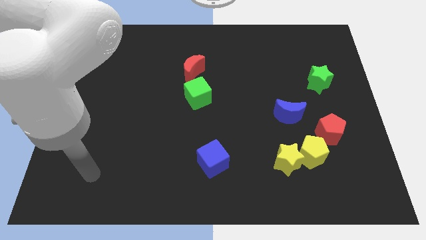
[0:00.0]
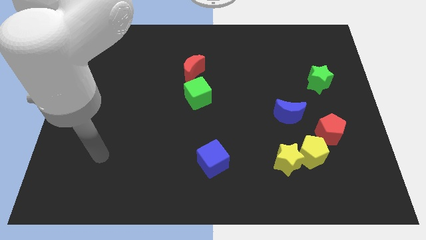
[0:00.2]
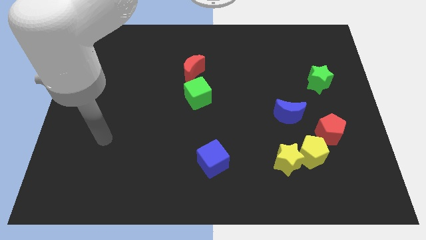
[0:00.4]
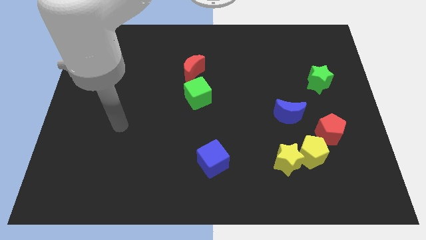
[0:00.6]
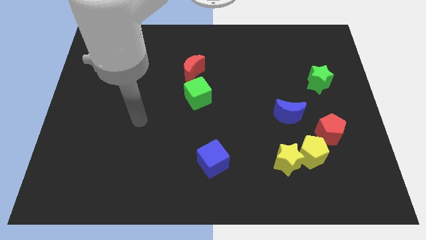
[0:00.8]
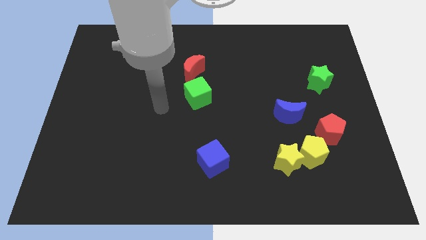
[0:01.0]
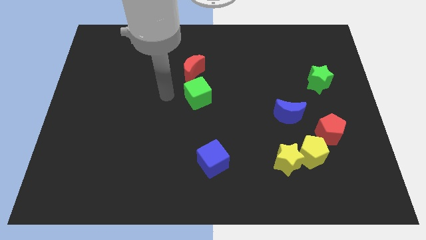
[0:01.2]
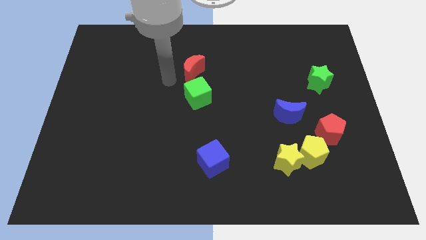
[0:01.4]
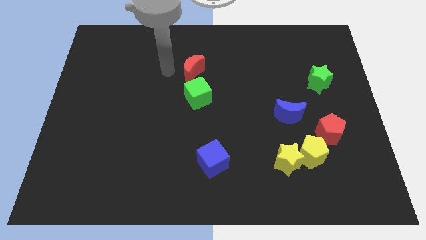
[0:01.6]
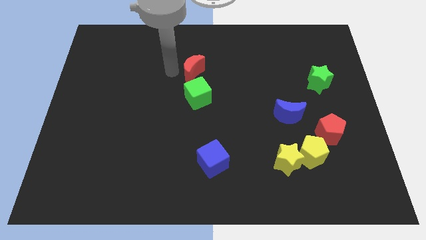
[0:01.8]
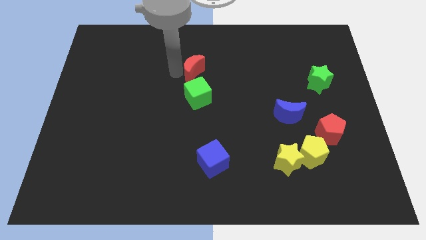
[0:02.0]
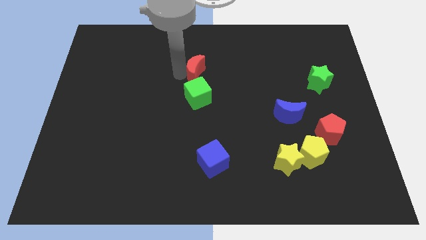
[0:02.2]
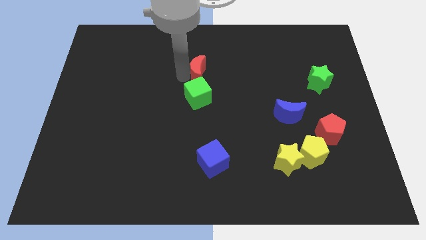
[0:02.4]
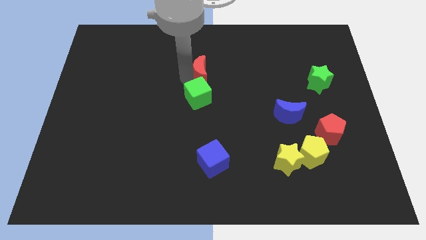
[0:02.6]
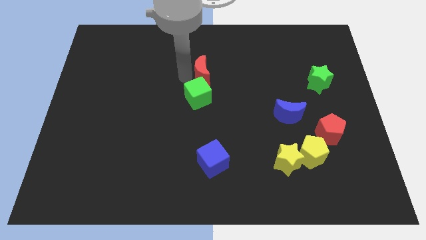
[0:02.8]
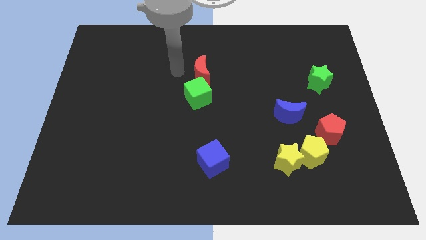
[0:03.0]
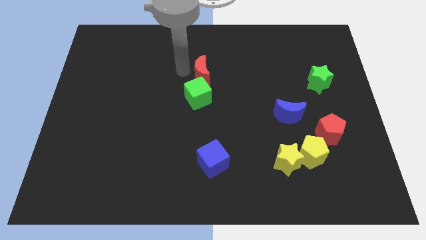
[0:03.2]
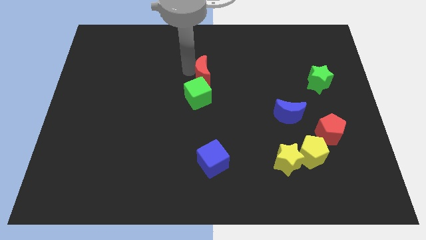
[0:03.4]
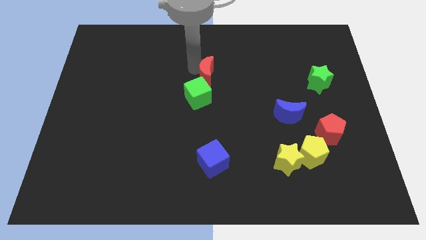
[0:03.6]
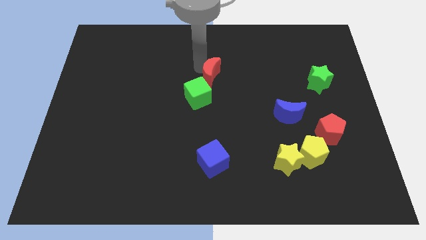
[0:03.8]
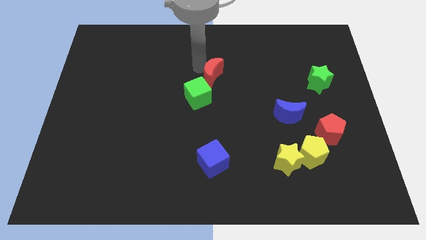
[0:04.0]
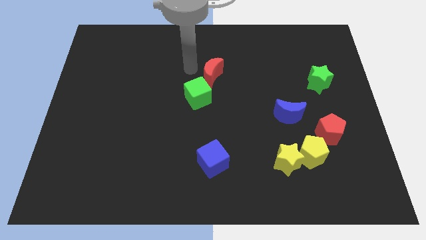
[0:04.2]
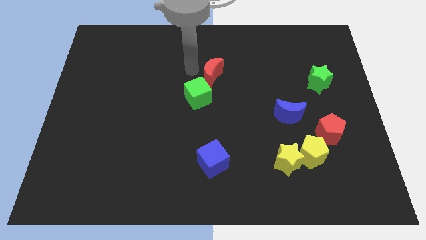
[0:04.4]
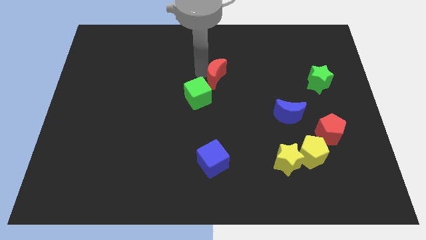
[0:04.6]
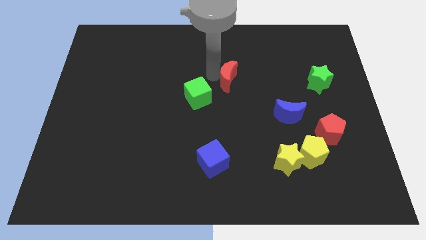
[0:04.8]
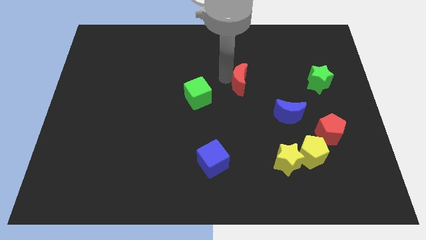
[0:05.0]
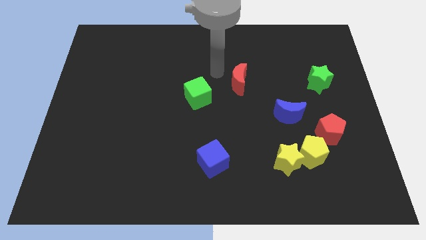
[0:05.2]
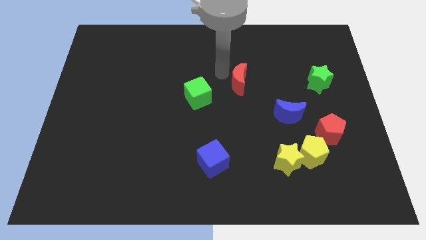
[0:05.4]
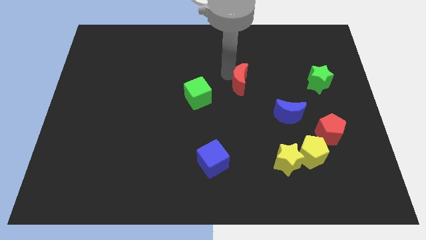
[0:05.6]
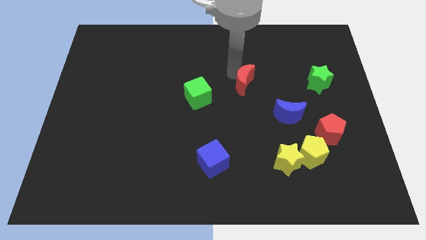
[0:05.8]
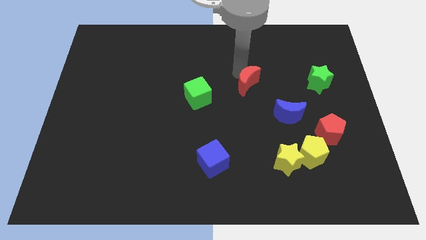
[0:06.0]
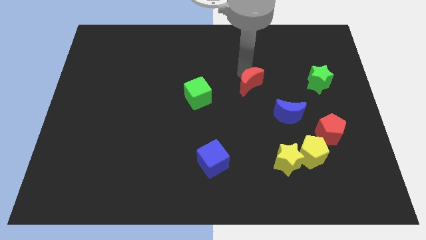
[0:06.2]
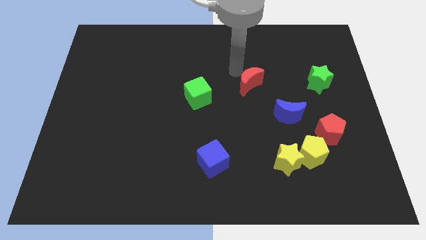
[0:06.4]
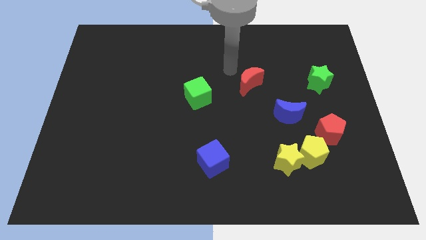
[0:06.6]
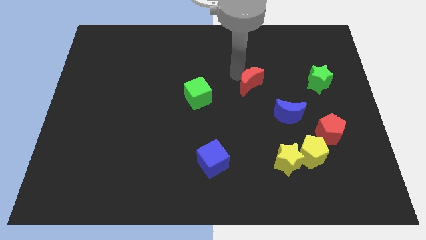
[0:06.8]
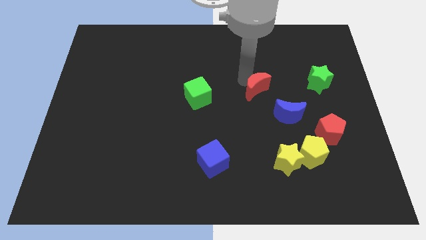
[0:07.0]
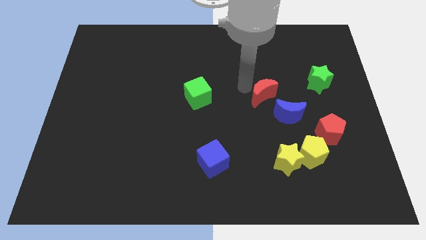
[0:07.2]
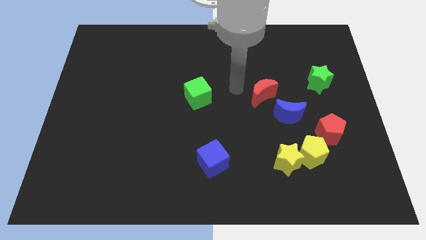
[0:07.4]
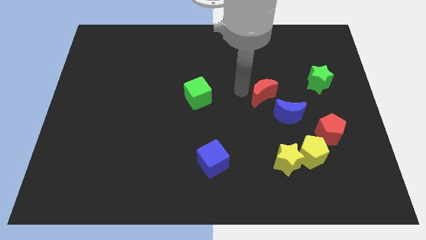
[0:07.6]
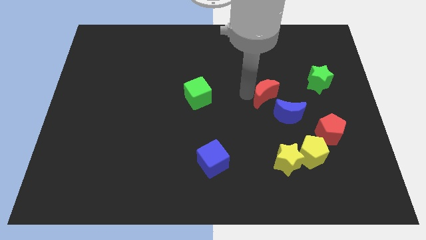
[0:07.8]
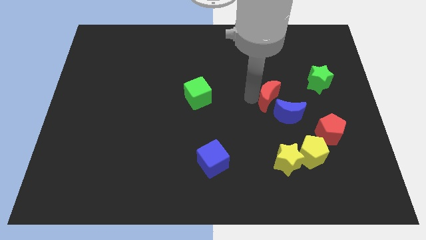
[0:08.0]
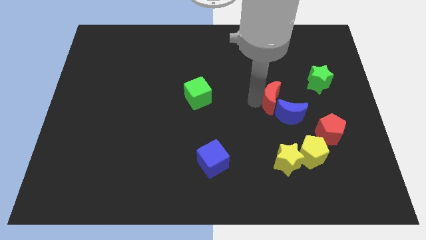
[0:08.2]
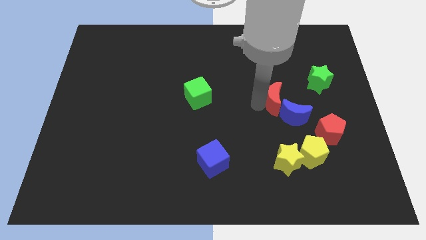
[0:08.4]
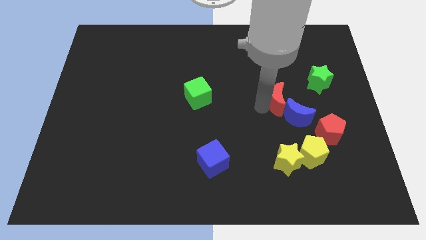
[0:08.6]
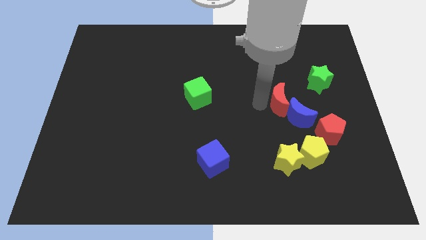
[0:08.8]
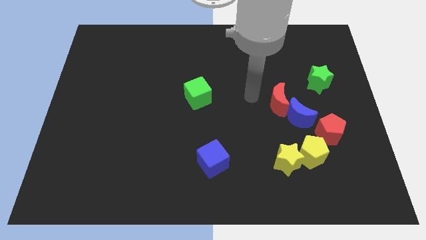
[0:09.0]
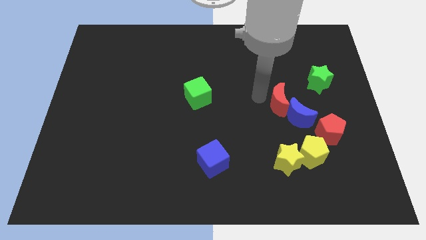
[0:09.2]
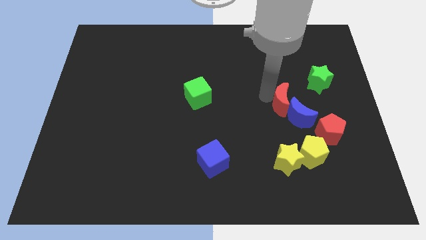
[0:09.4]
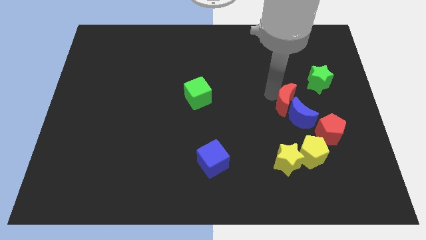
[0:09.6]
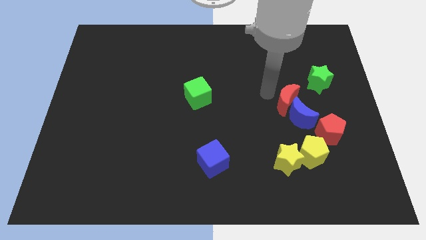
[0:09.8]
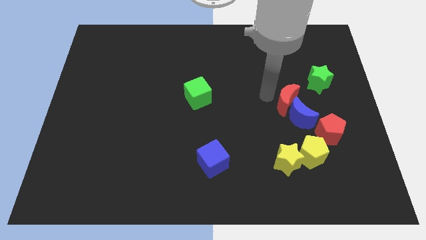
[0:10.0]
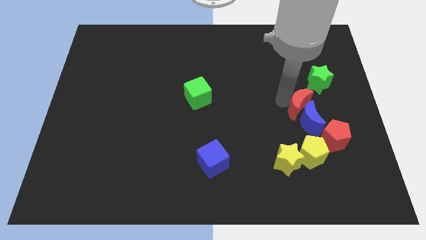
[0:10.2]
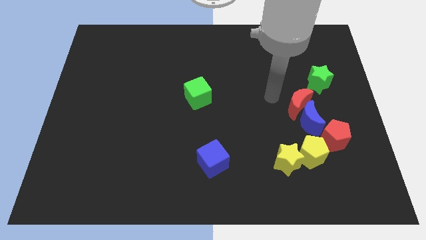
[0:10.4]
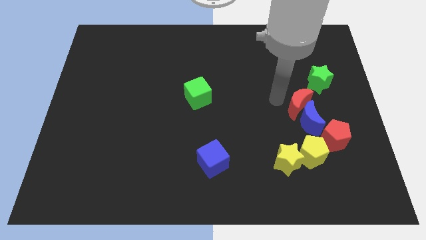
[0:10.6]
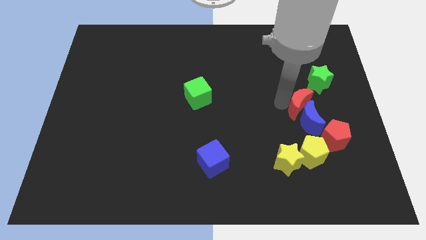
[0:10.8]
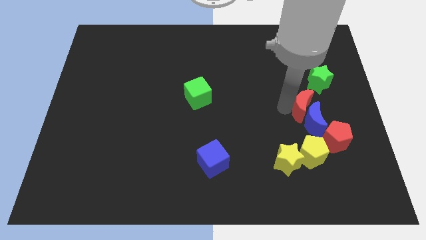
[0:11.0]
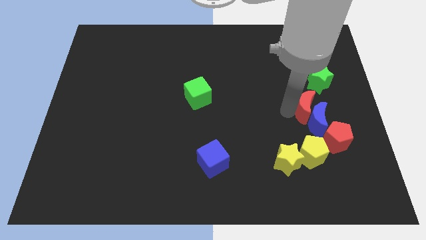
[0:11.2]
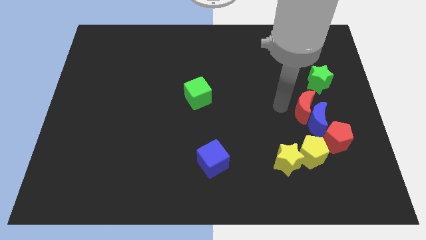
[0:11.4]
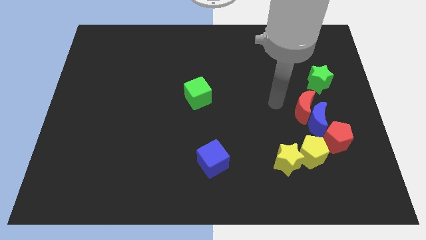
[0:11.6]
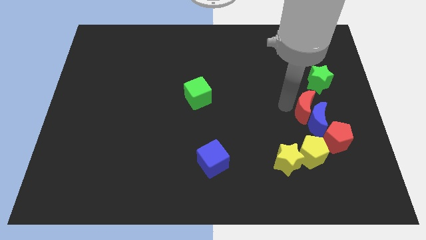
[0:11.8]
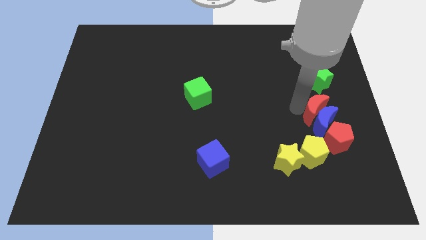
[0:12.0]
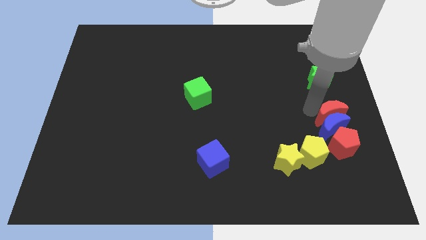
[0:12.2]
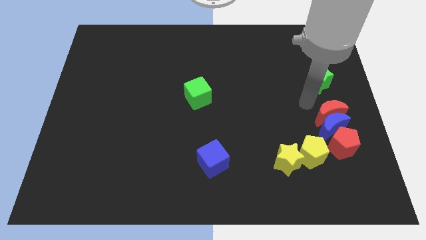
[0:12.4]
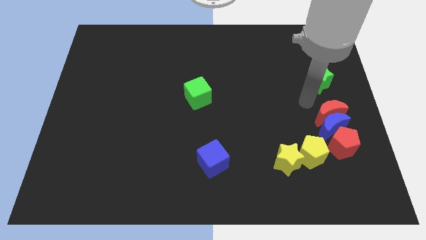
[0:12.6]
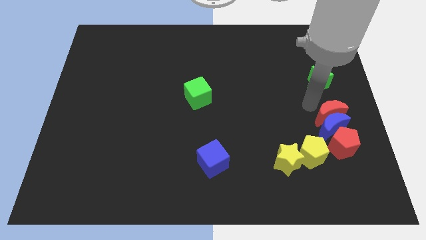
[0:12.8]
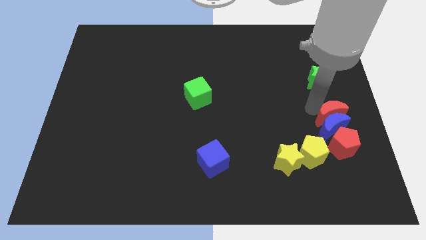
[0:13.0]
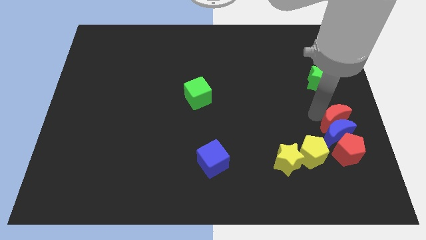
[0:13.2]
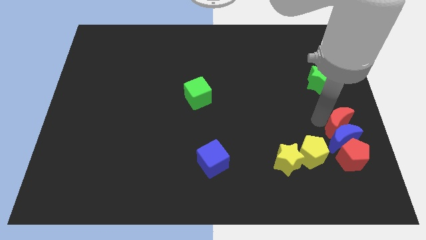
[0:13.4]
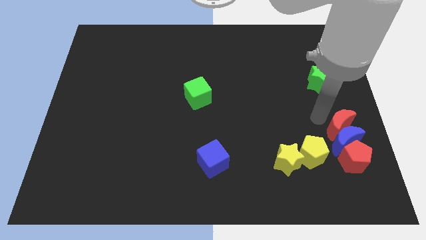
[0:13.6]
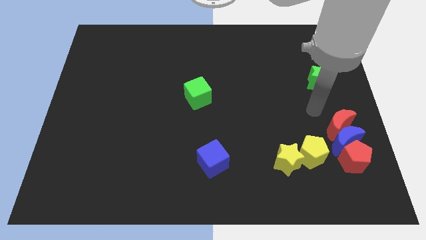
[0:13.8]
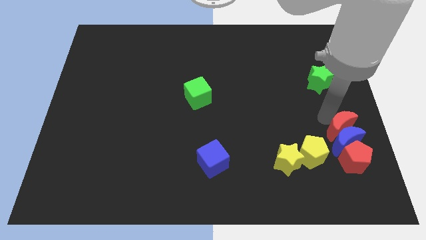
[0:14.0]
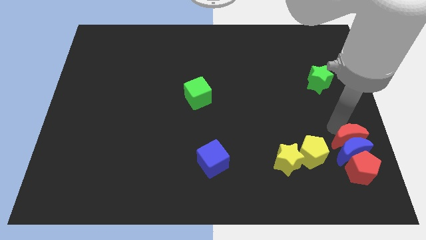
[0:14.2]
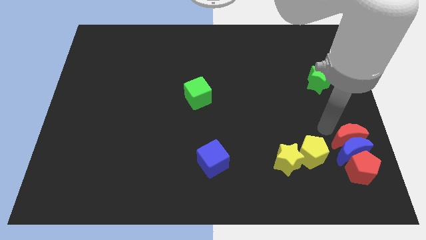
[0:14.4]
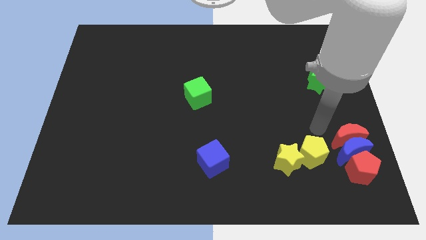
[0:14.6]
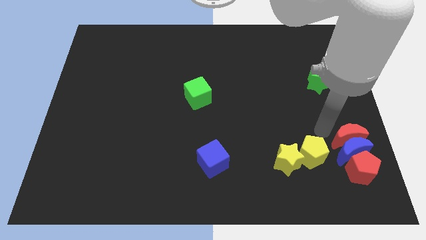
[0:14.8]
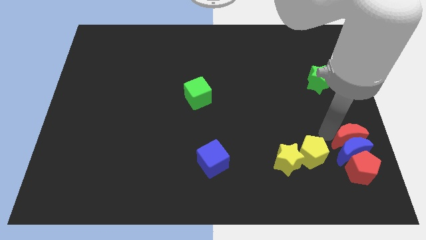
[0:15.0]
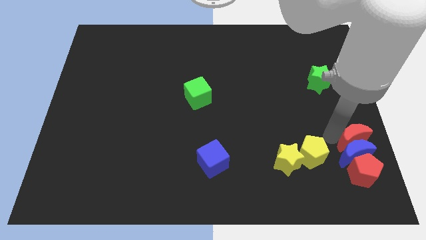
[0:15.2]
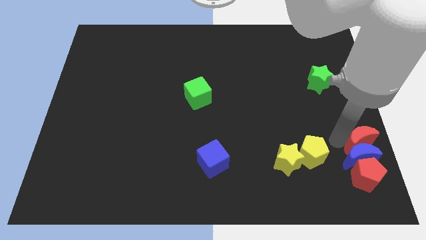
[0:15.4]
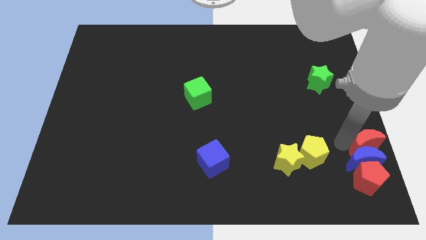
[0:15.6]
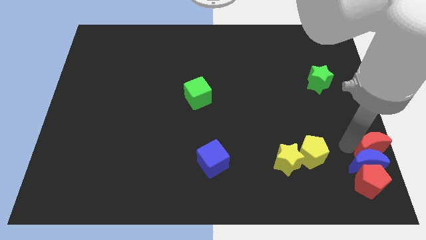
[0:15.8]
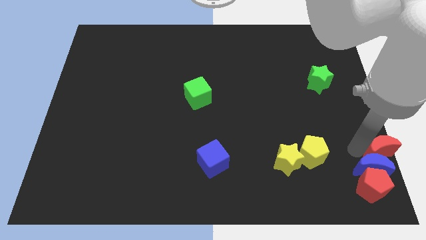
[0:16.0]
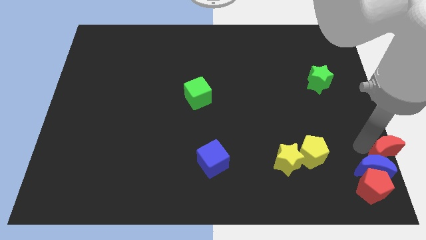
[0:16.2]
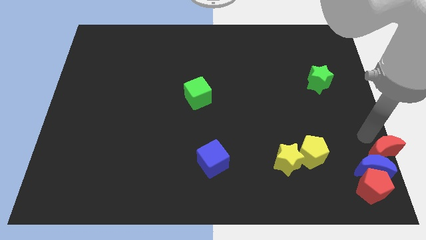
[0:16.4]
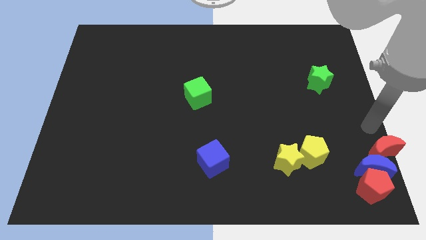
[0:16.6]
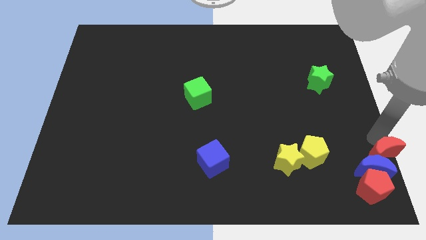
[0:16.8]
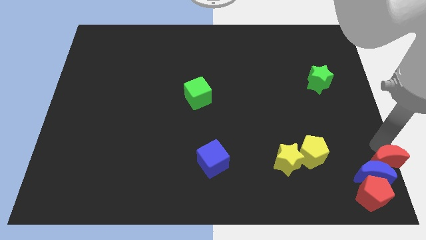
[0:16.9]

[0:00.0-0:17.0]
put the red moon to the bottom right of the board
